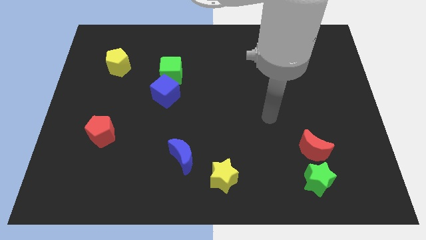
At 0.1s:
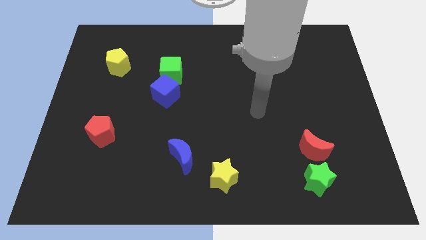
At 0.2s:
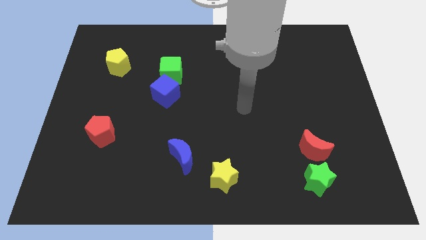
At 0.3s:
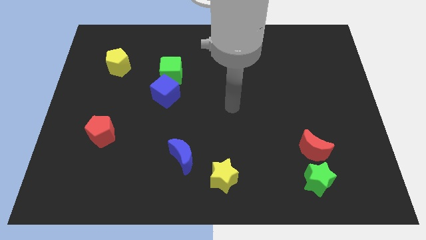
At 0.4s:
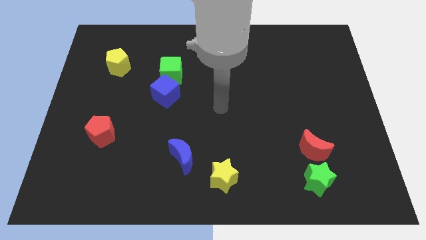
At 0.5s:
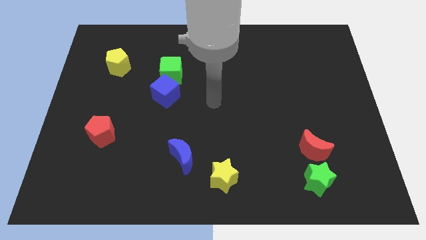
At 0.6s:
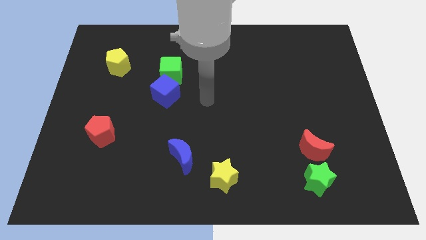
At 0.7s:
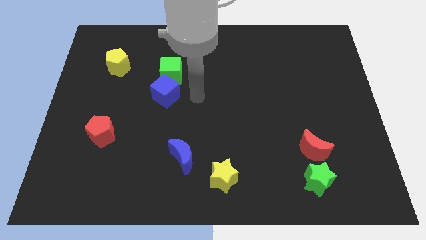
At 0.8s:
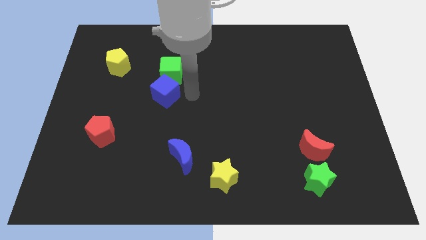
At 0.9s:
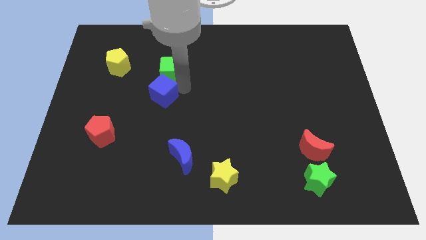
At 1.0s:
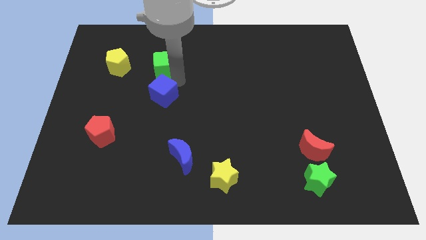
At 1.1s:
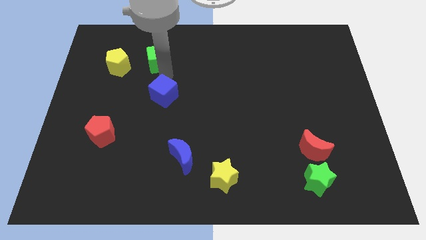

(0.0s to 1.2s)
pull the blue cube apart from the green cube

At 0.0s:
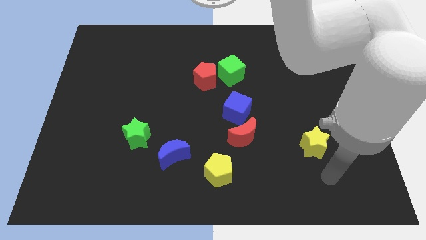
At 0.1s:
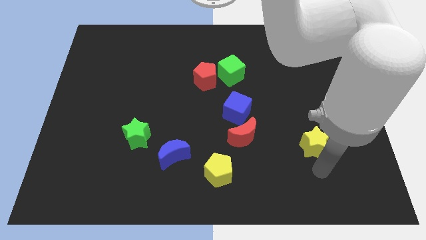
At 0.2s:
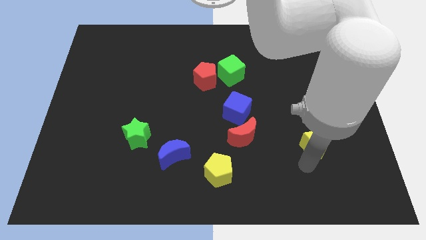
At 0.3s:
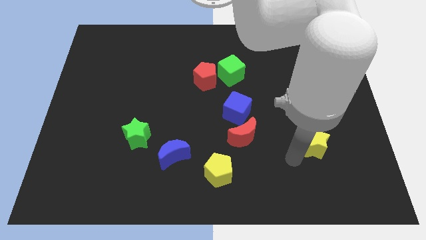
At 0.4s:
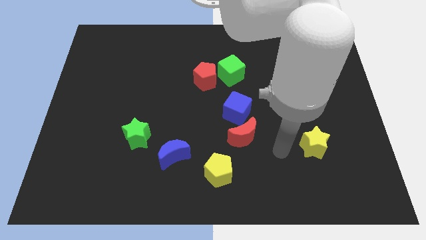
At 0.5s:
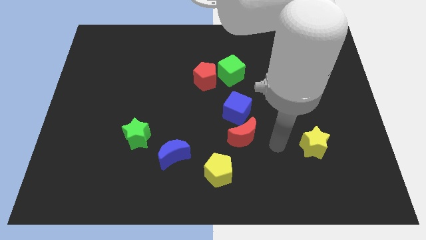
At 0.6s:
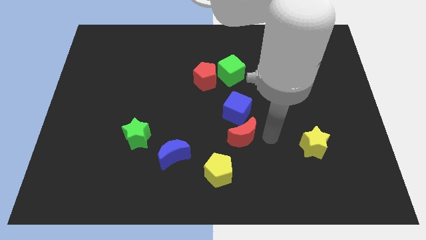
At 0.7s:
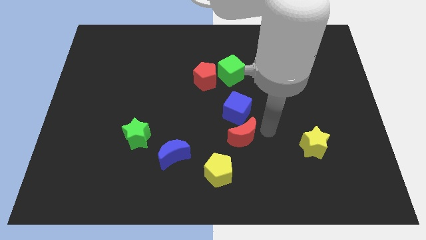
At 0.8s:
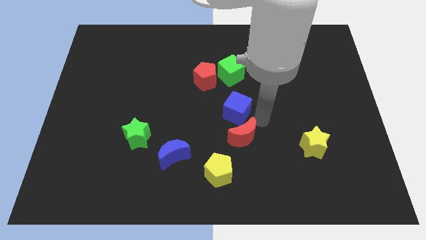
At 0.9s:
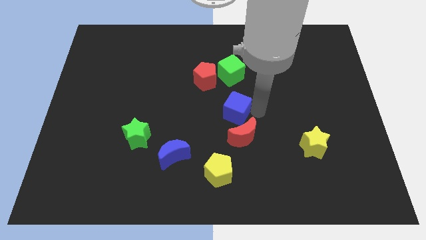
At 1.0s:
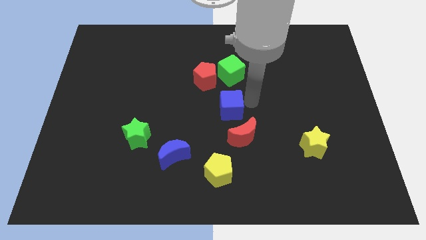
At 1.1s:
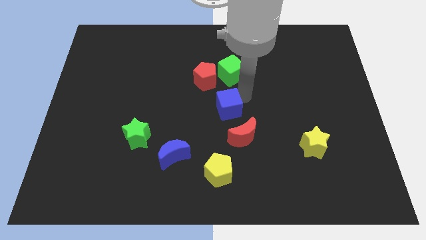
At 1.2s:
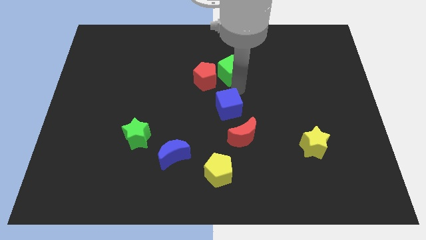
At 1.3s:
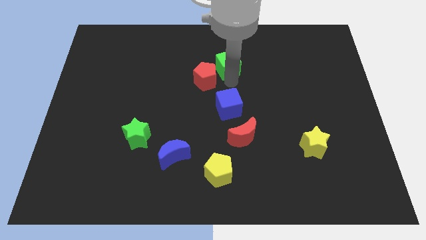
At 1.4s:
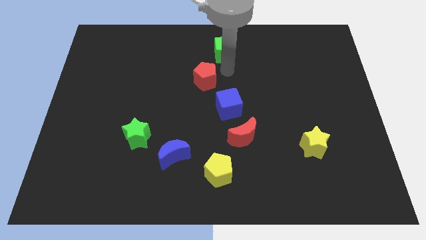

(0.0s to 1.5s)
pull the red pentagon apart from the green cube

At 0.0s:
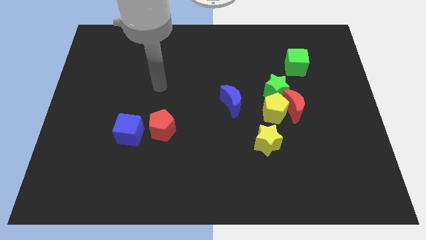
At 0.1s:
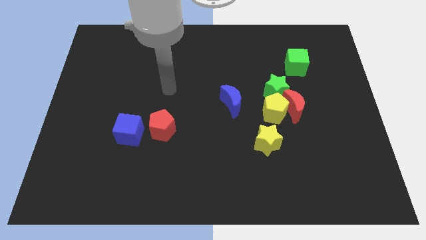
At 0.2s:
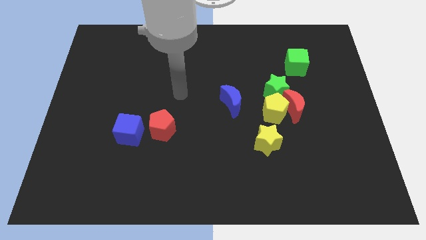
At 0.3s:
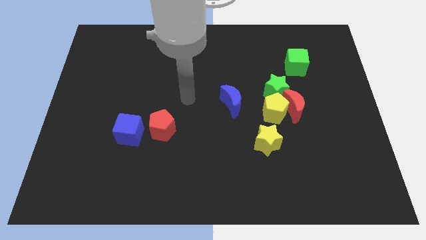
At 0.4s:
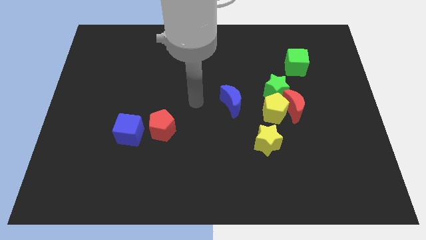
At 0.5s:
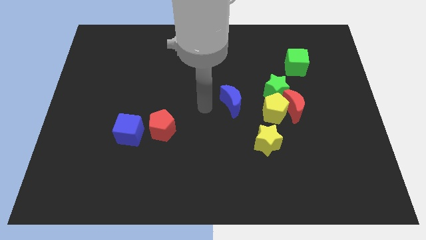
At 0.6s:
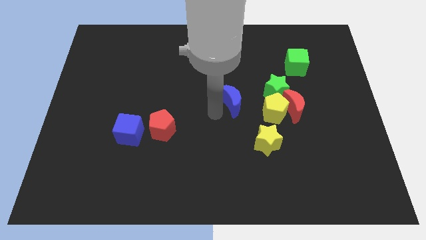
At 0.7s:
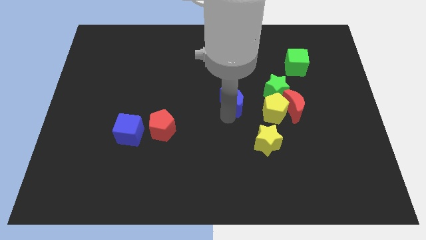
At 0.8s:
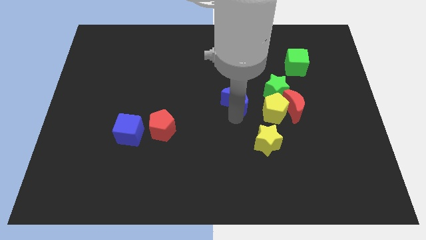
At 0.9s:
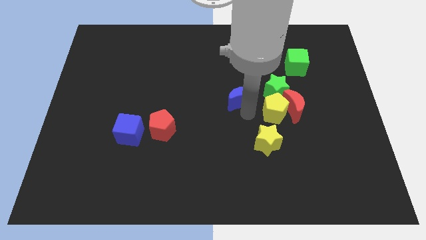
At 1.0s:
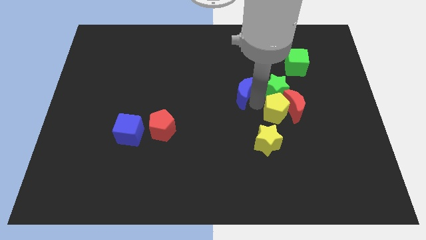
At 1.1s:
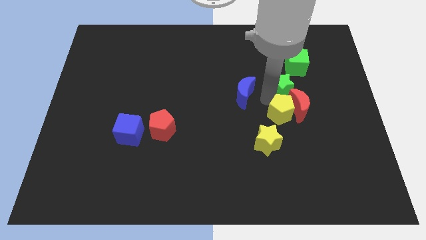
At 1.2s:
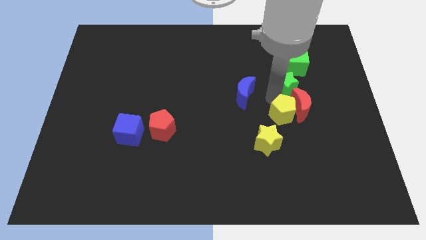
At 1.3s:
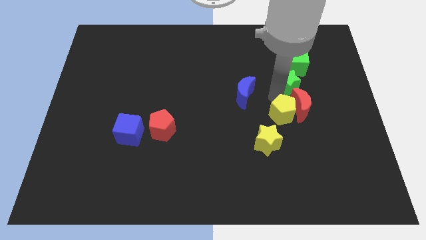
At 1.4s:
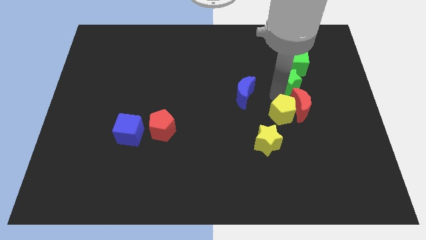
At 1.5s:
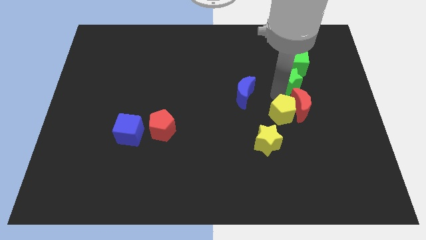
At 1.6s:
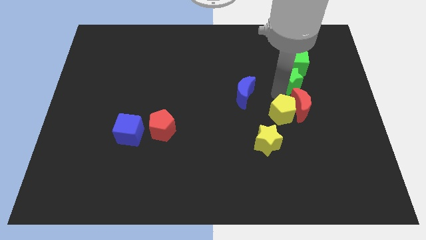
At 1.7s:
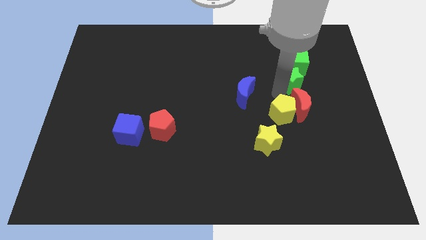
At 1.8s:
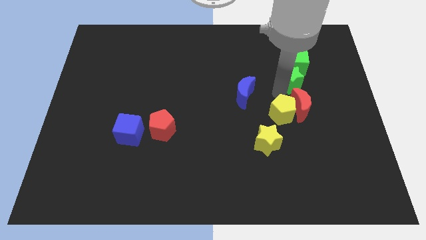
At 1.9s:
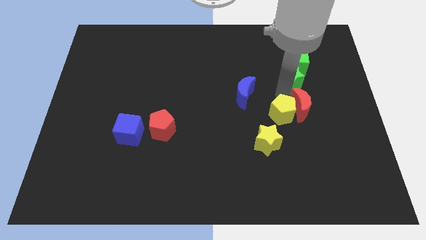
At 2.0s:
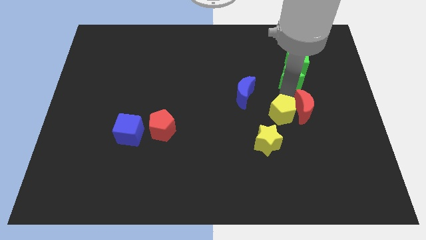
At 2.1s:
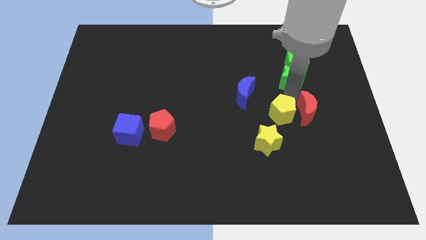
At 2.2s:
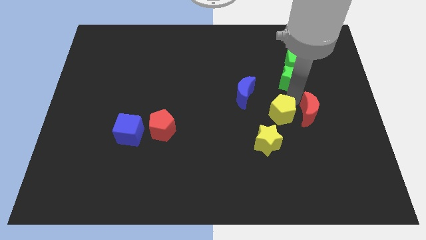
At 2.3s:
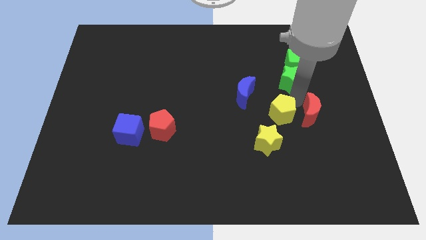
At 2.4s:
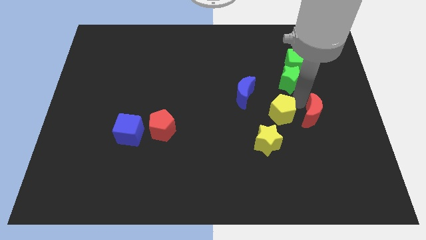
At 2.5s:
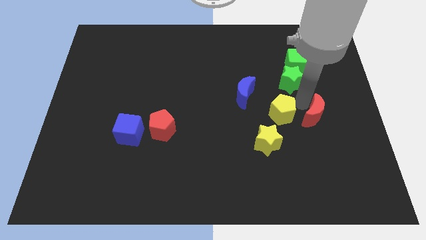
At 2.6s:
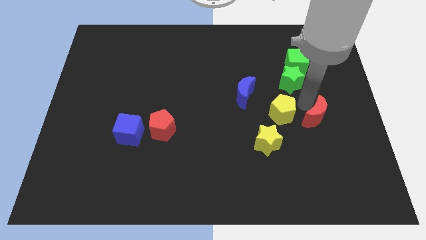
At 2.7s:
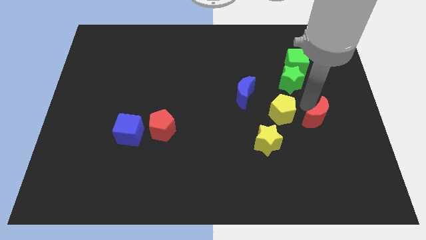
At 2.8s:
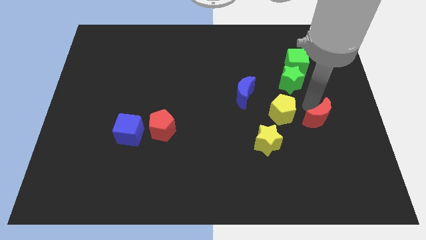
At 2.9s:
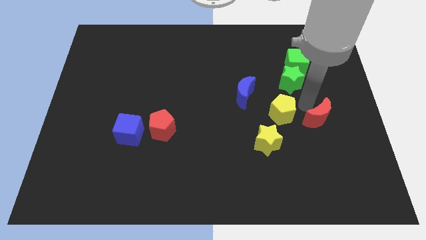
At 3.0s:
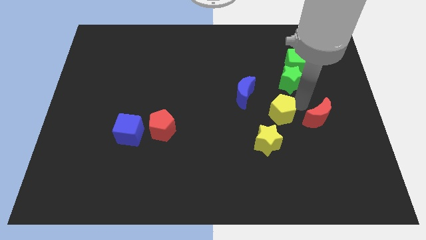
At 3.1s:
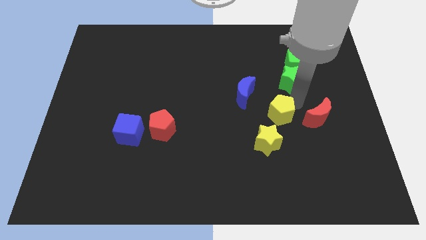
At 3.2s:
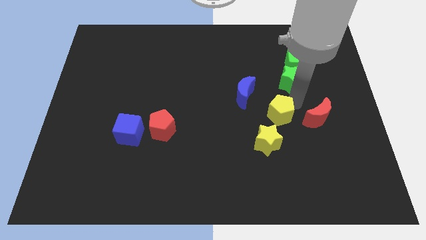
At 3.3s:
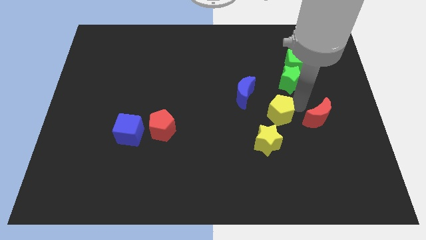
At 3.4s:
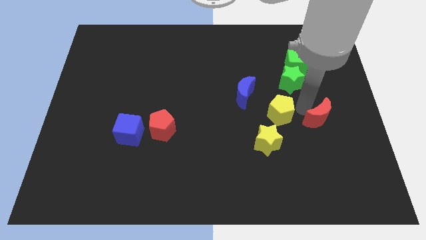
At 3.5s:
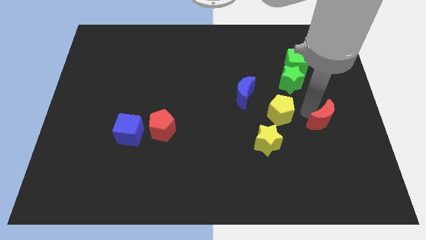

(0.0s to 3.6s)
separate the red moon from the yellow pentagon and green star

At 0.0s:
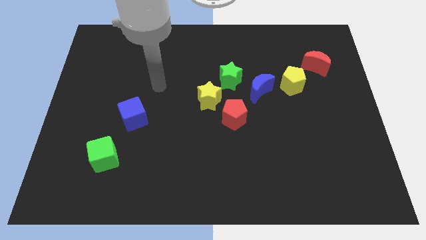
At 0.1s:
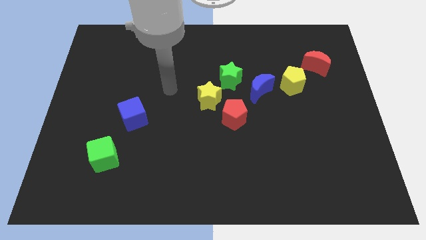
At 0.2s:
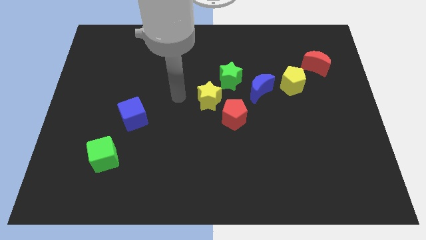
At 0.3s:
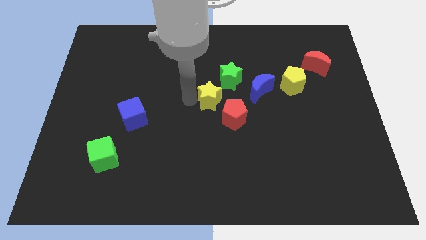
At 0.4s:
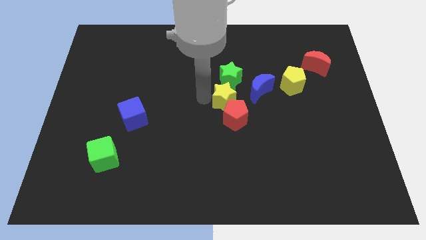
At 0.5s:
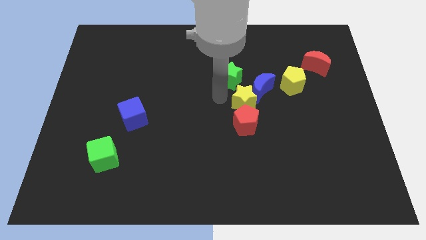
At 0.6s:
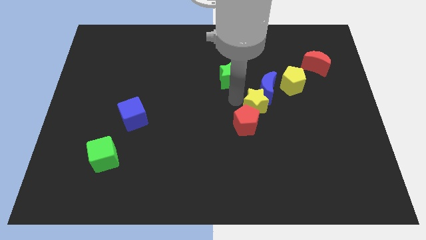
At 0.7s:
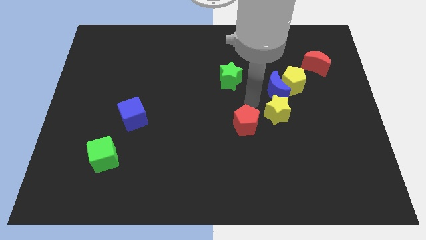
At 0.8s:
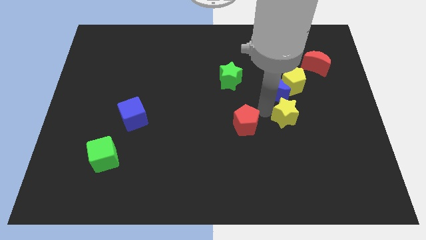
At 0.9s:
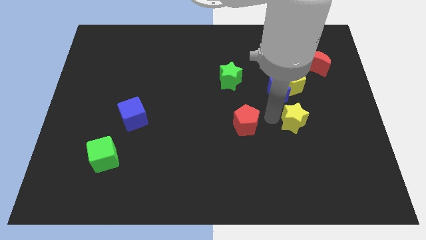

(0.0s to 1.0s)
separate the red pentagon from the yellow star

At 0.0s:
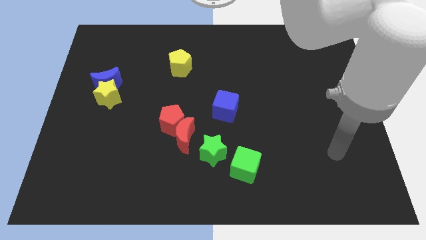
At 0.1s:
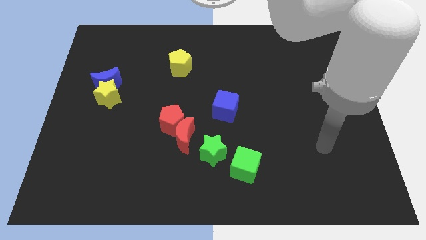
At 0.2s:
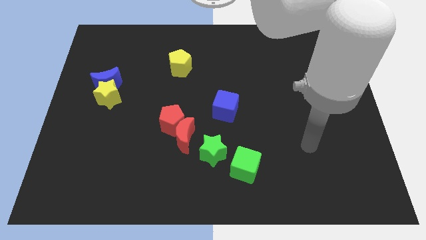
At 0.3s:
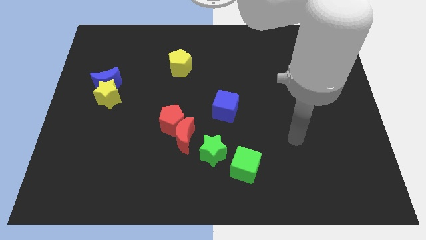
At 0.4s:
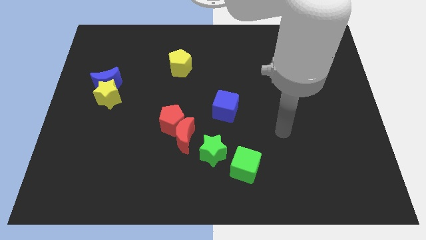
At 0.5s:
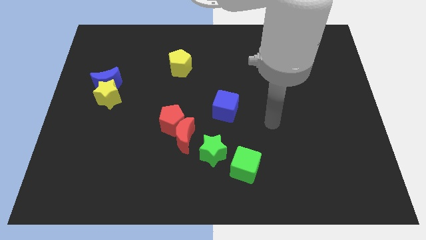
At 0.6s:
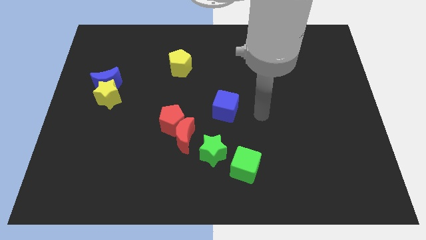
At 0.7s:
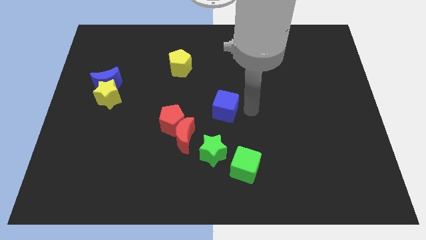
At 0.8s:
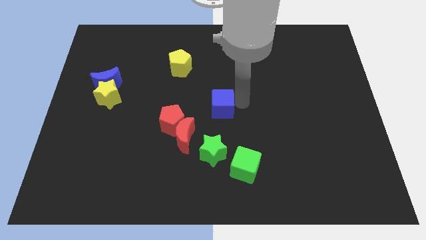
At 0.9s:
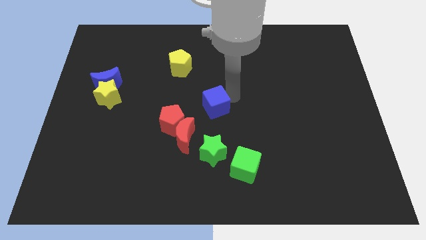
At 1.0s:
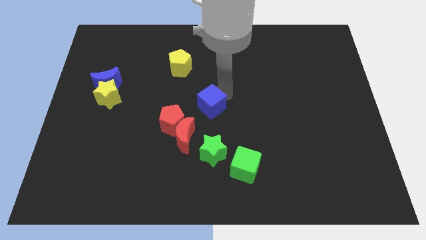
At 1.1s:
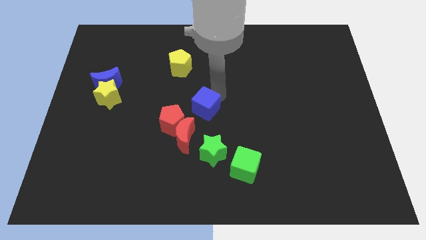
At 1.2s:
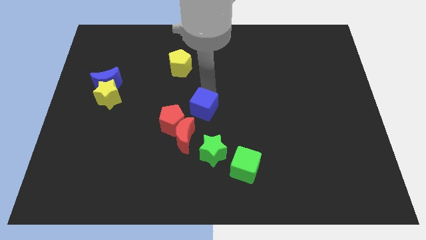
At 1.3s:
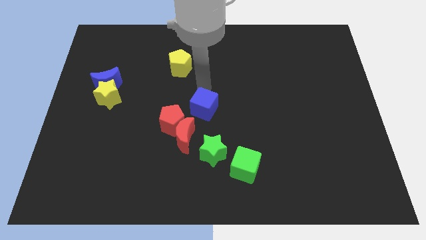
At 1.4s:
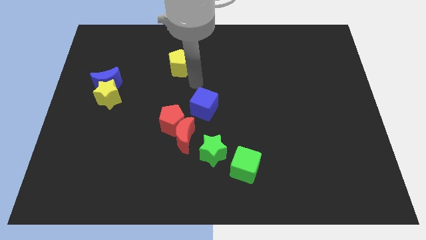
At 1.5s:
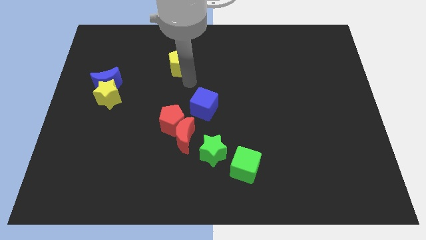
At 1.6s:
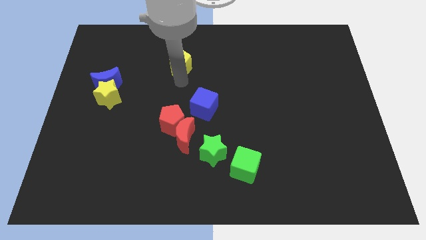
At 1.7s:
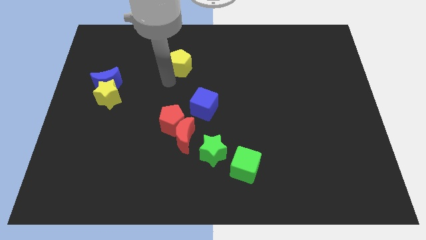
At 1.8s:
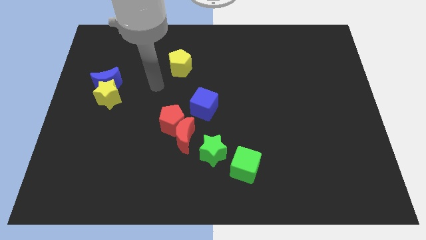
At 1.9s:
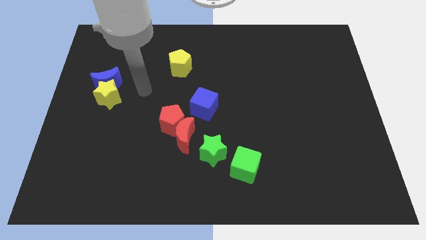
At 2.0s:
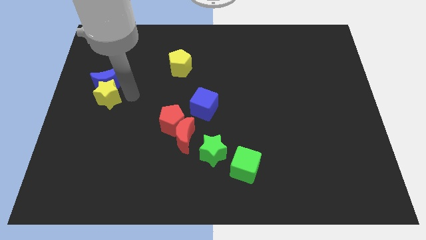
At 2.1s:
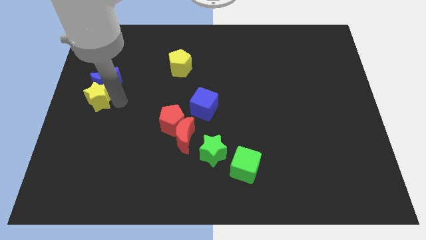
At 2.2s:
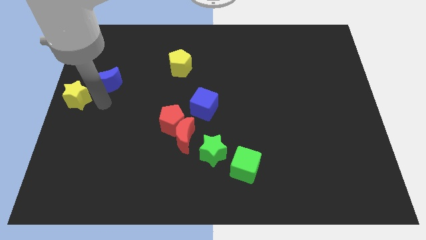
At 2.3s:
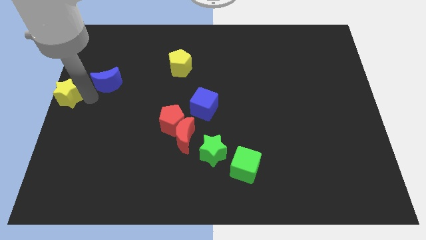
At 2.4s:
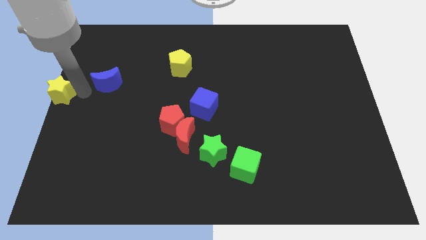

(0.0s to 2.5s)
move the blue moon away from the yellow star
